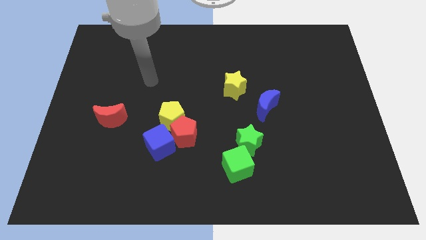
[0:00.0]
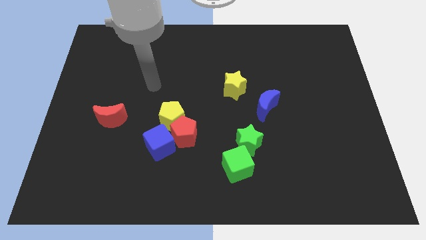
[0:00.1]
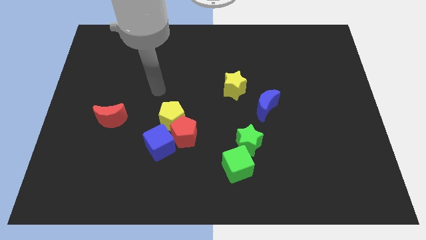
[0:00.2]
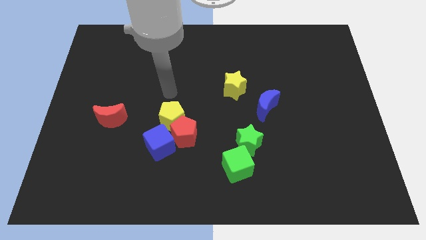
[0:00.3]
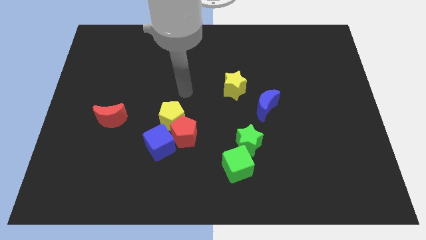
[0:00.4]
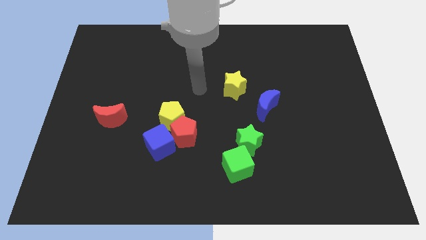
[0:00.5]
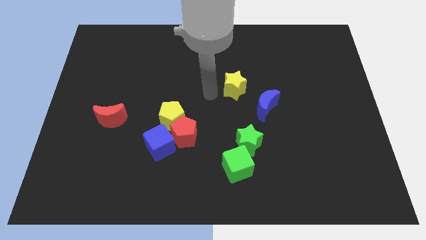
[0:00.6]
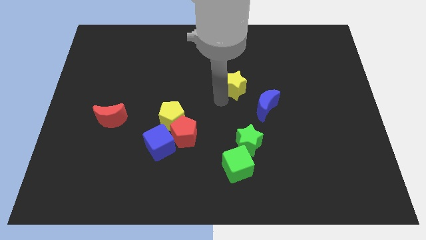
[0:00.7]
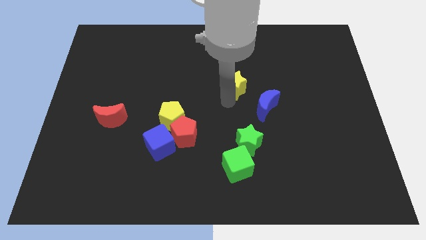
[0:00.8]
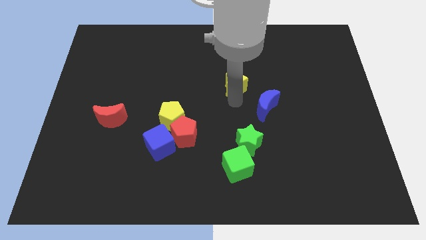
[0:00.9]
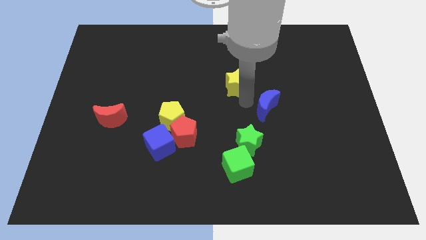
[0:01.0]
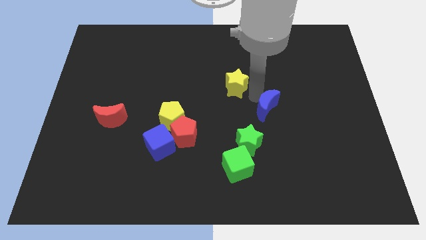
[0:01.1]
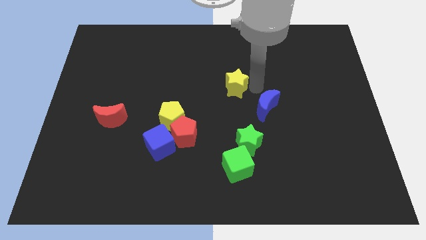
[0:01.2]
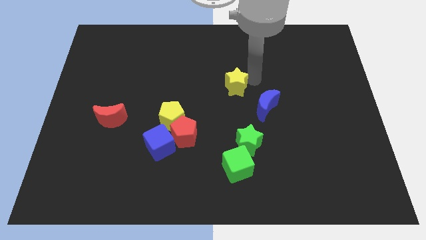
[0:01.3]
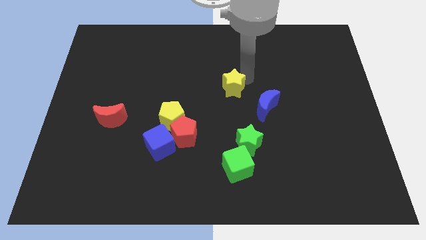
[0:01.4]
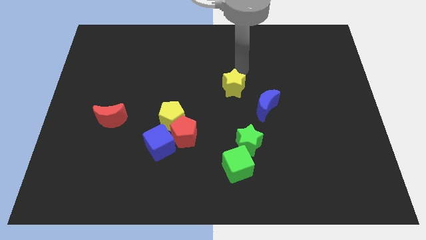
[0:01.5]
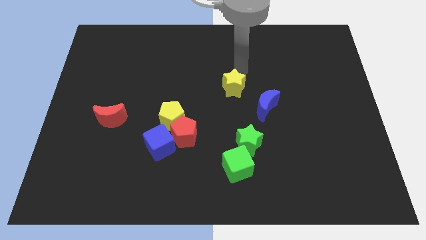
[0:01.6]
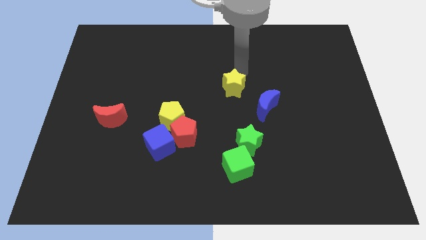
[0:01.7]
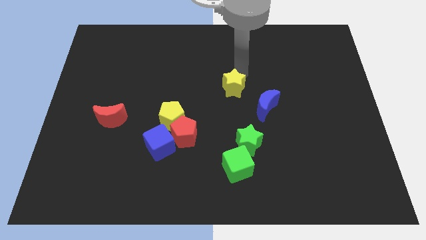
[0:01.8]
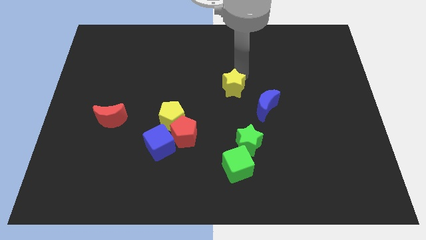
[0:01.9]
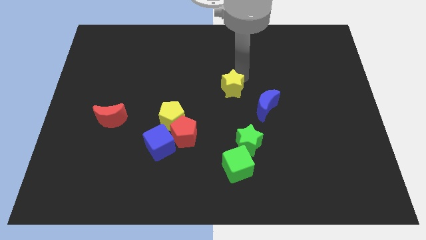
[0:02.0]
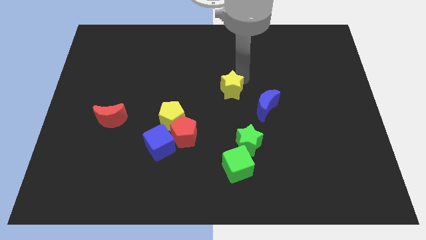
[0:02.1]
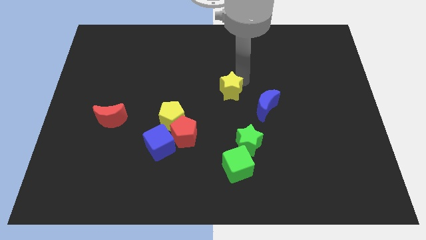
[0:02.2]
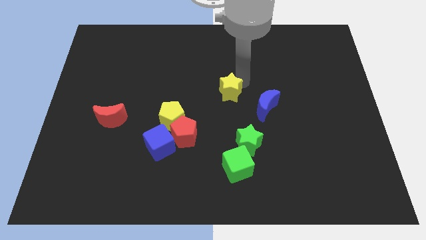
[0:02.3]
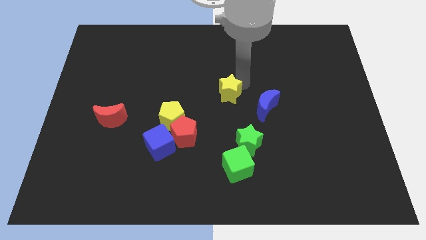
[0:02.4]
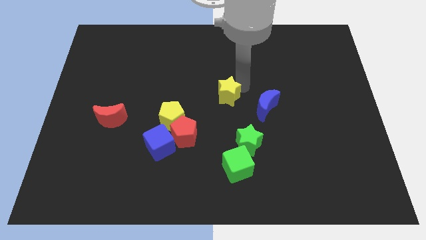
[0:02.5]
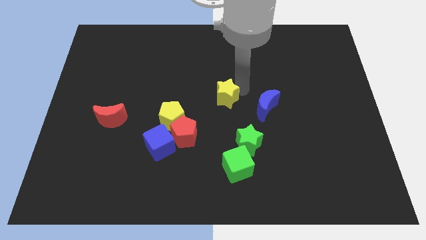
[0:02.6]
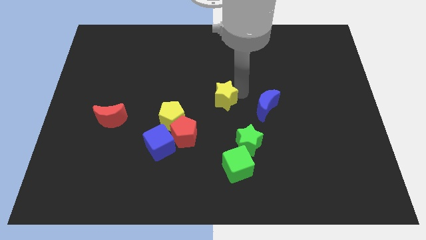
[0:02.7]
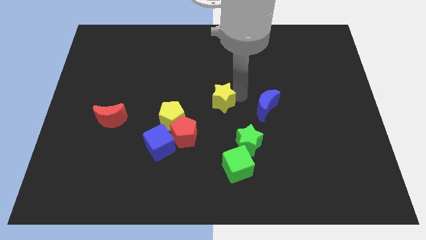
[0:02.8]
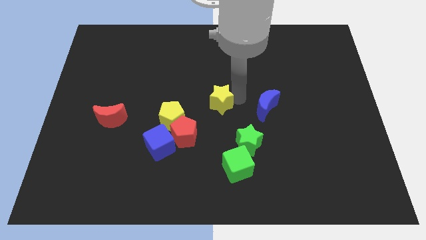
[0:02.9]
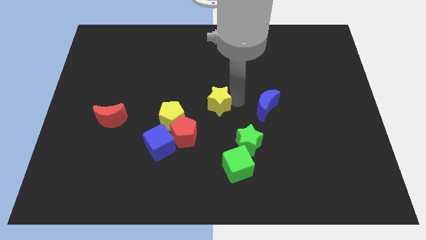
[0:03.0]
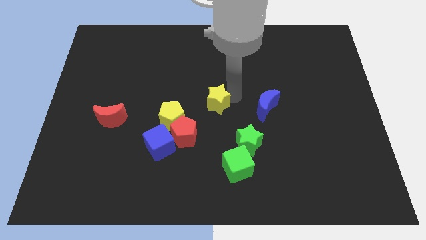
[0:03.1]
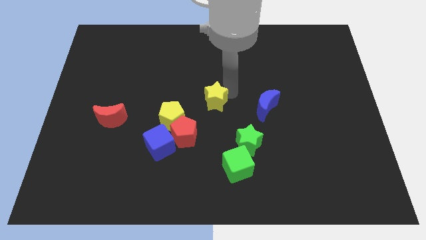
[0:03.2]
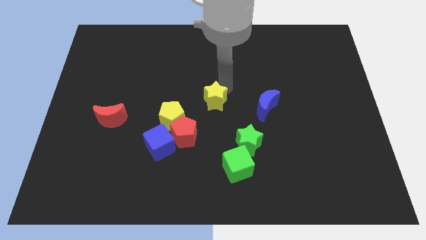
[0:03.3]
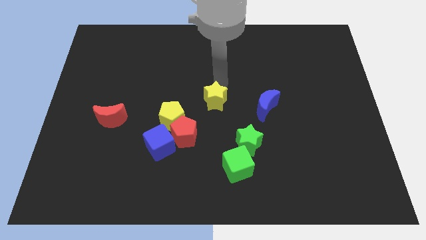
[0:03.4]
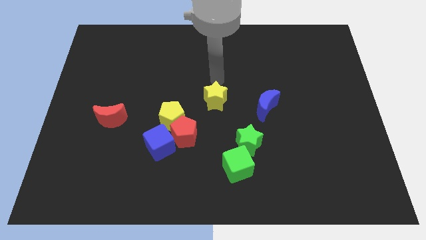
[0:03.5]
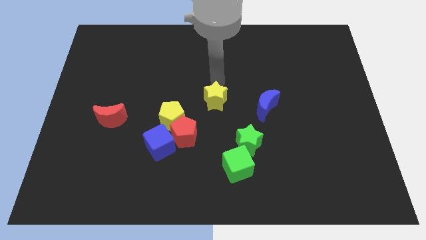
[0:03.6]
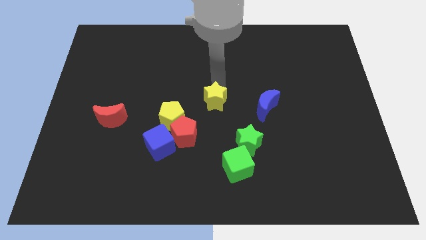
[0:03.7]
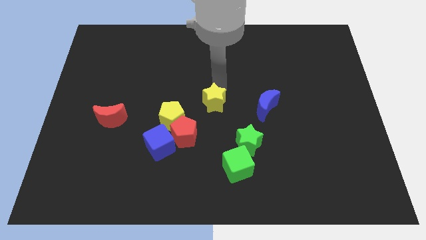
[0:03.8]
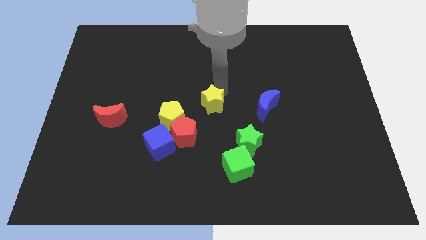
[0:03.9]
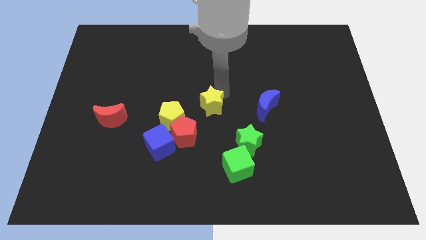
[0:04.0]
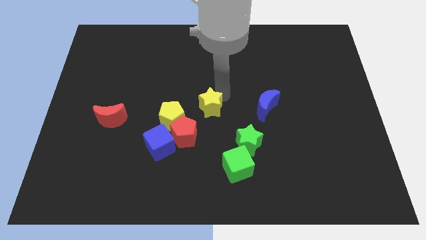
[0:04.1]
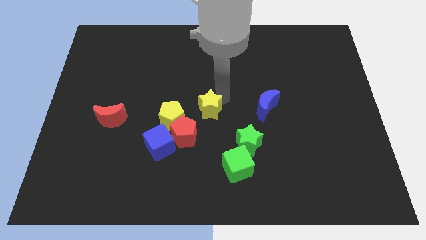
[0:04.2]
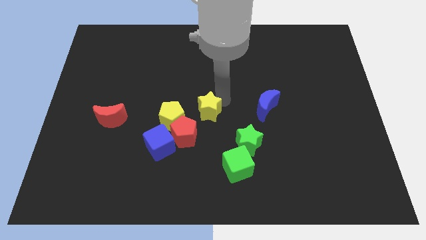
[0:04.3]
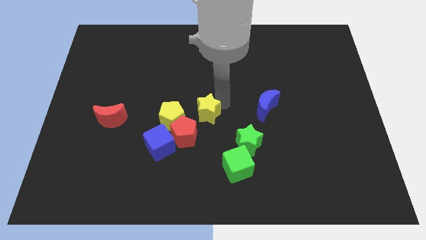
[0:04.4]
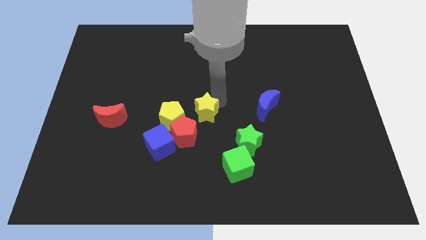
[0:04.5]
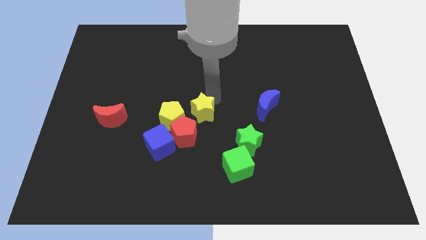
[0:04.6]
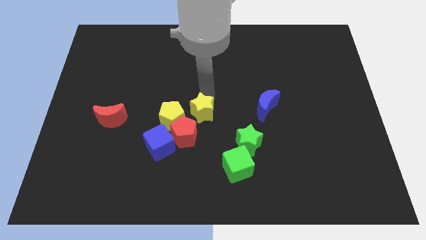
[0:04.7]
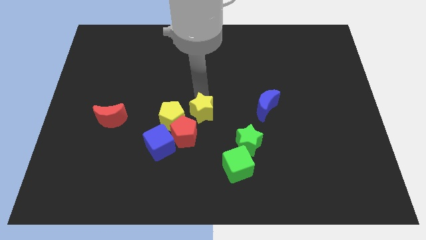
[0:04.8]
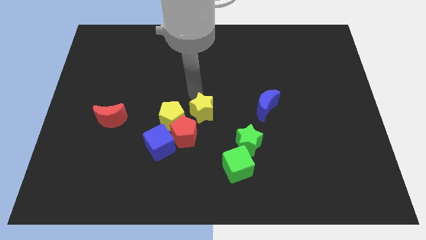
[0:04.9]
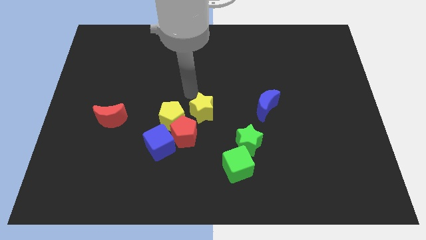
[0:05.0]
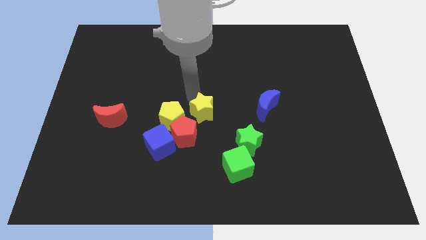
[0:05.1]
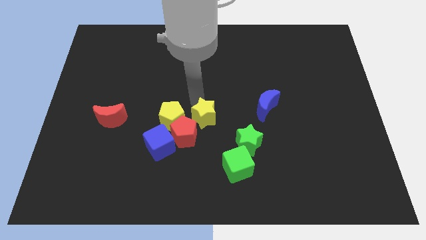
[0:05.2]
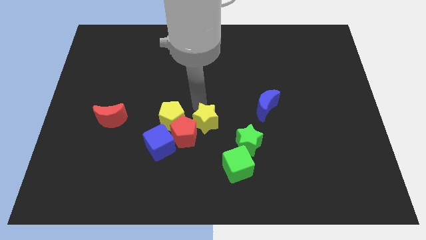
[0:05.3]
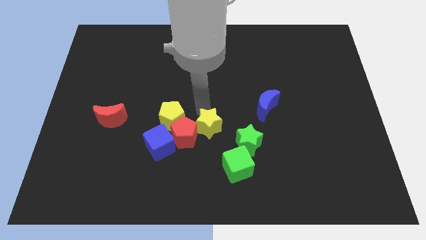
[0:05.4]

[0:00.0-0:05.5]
put the yellow star diagonally up and to the left of the green cube

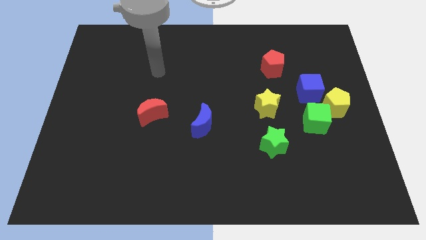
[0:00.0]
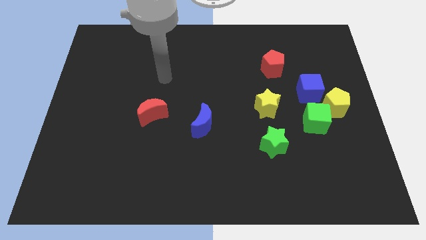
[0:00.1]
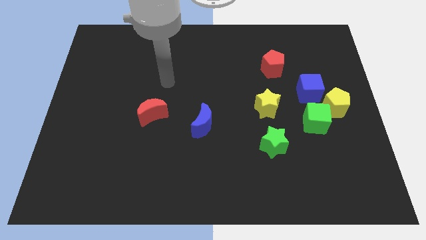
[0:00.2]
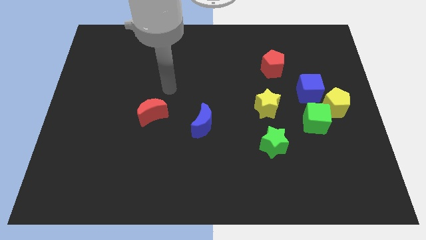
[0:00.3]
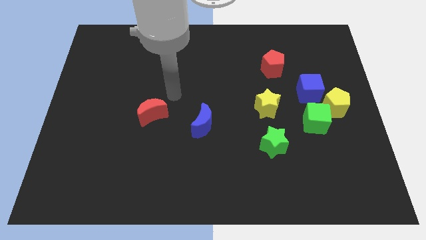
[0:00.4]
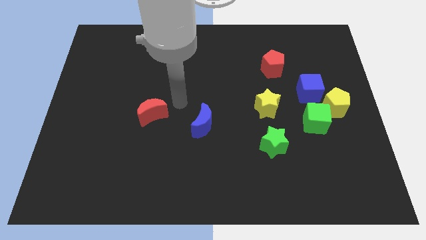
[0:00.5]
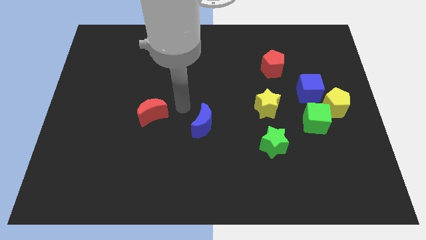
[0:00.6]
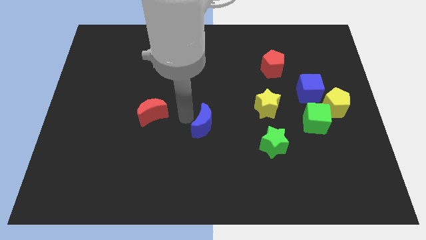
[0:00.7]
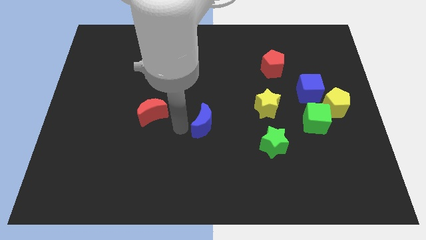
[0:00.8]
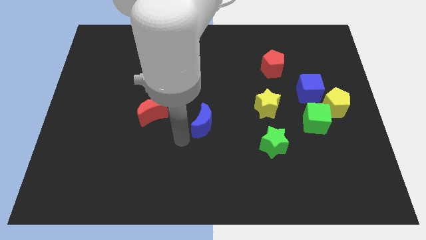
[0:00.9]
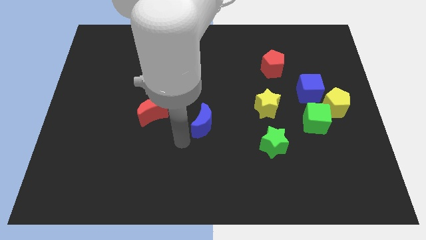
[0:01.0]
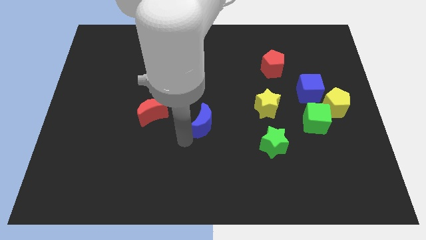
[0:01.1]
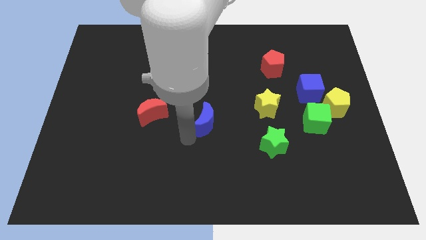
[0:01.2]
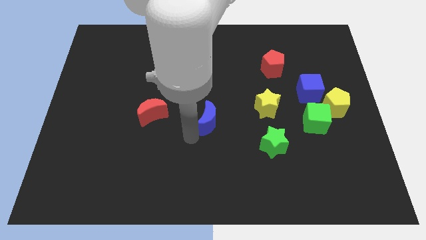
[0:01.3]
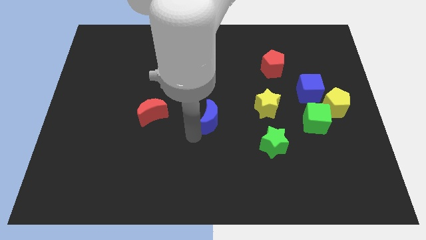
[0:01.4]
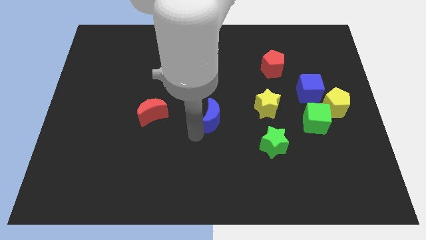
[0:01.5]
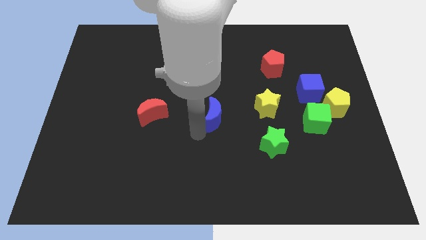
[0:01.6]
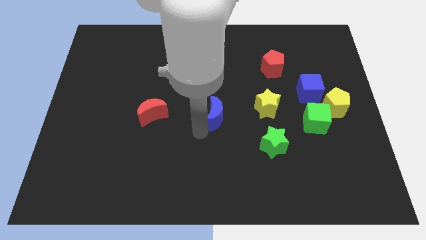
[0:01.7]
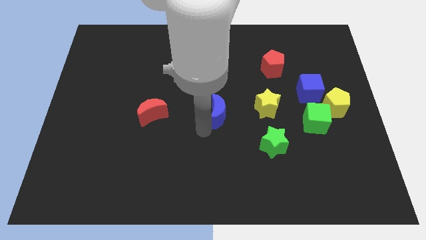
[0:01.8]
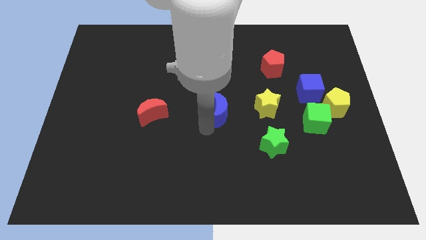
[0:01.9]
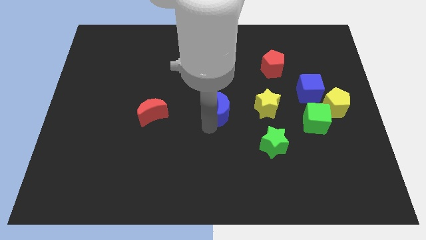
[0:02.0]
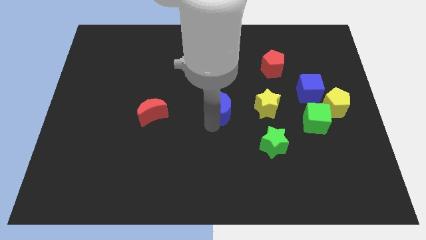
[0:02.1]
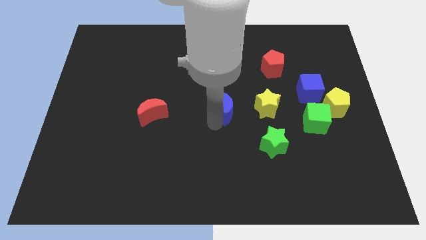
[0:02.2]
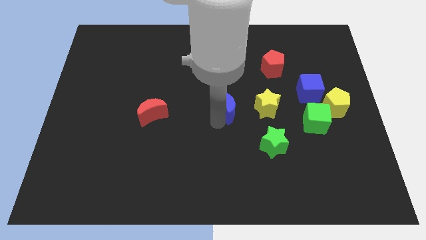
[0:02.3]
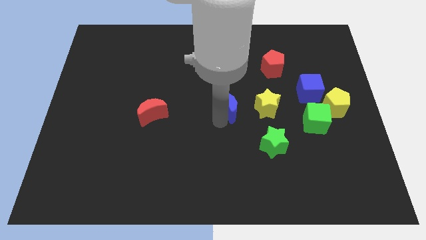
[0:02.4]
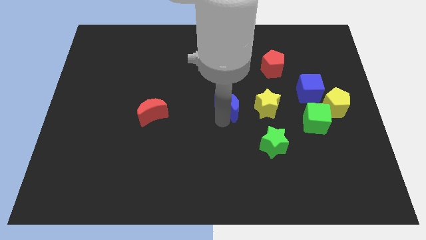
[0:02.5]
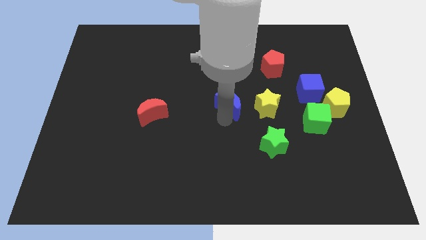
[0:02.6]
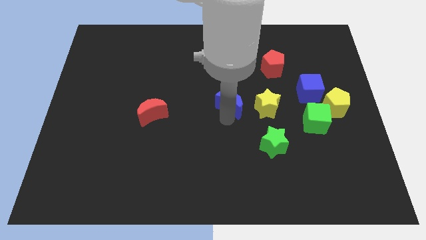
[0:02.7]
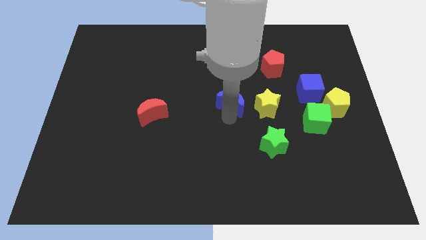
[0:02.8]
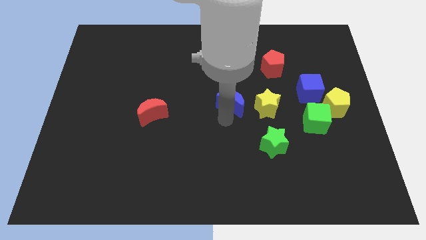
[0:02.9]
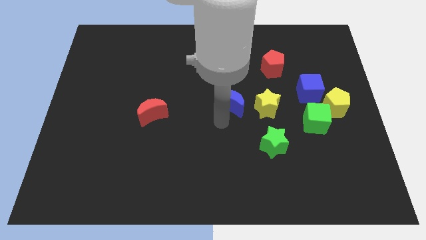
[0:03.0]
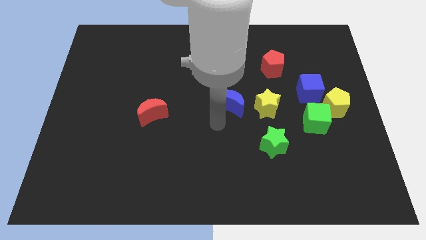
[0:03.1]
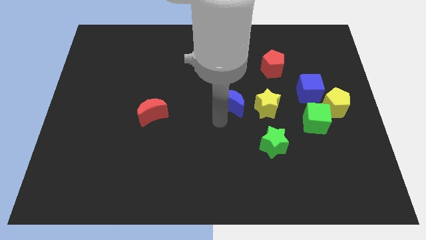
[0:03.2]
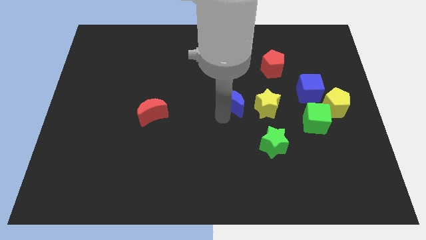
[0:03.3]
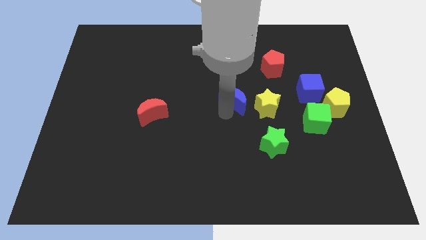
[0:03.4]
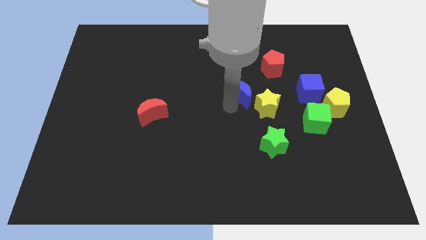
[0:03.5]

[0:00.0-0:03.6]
push the blue moon to the bottom left of the red pentagon
